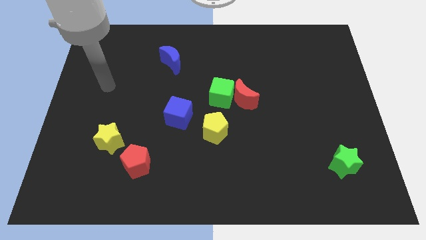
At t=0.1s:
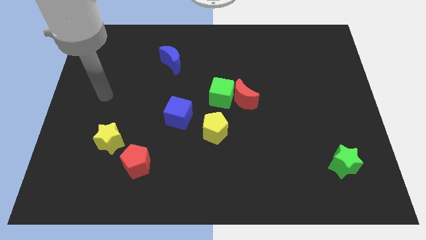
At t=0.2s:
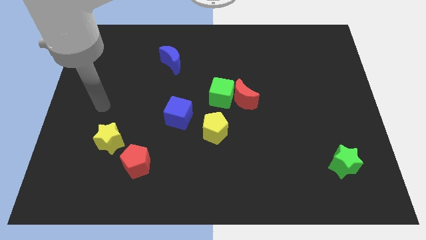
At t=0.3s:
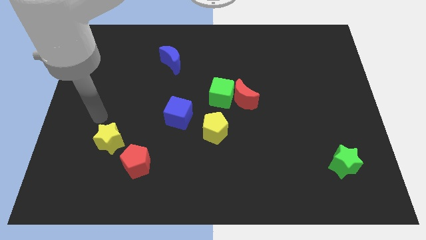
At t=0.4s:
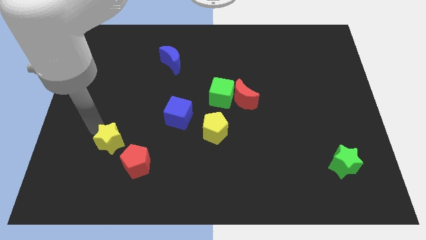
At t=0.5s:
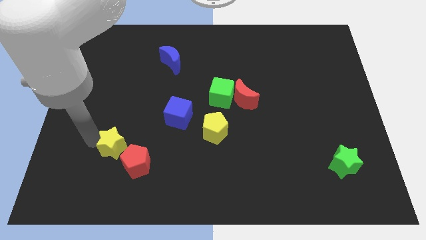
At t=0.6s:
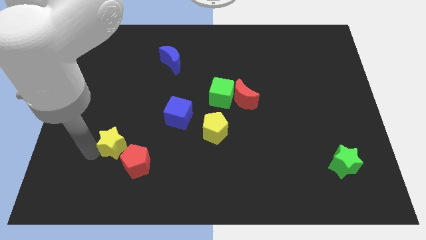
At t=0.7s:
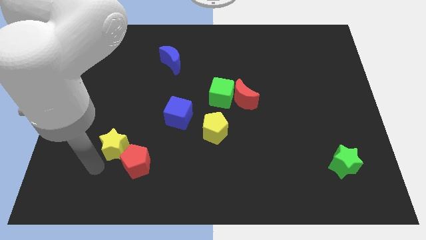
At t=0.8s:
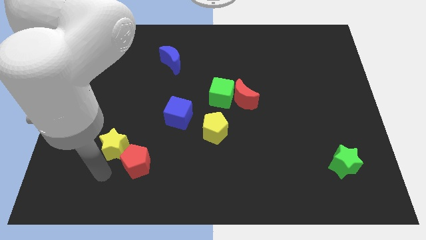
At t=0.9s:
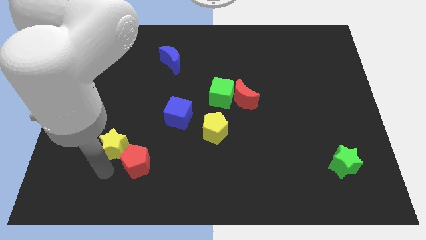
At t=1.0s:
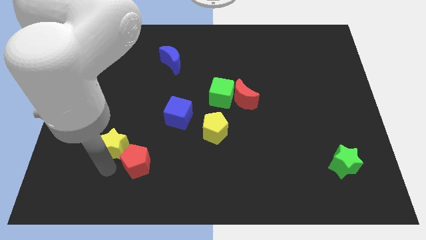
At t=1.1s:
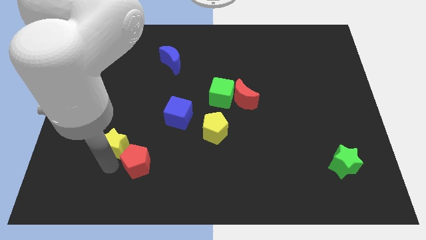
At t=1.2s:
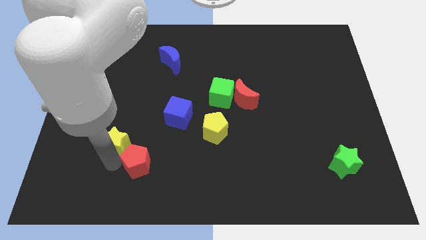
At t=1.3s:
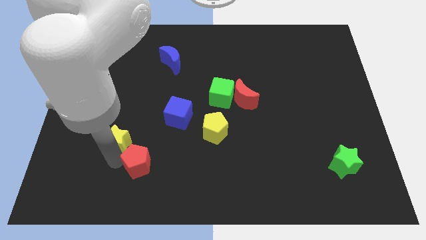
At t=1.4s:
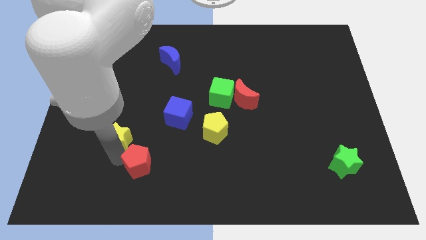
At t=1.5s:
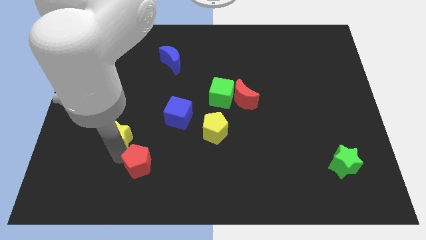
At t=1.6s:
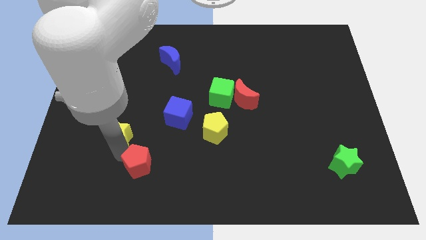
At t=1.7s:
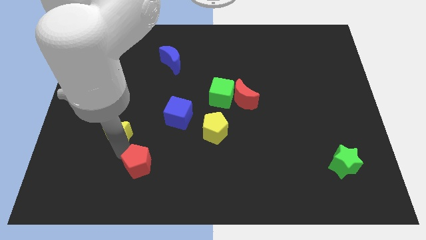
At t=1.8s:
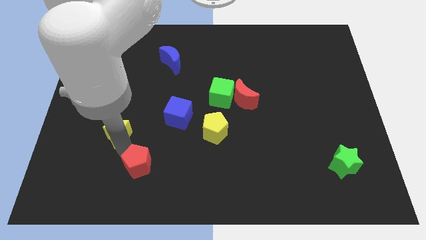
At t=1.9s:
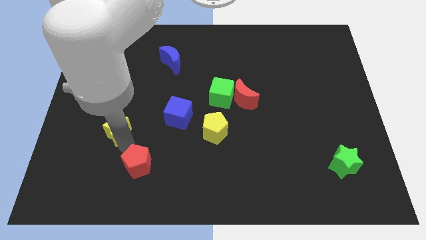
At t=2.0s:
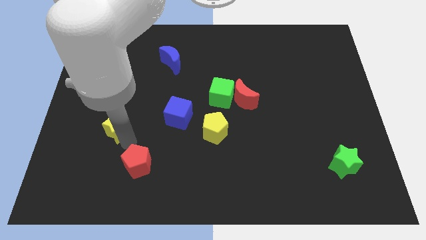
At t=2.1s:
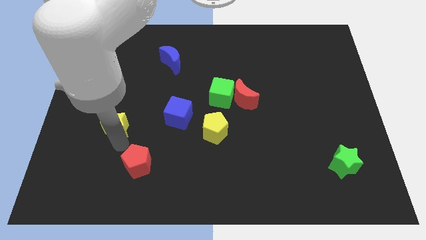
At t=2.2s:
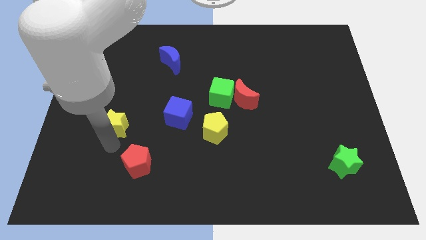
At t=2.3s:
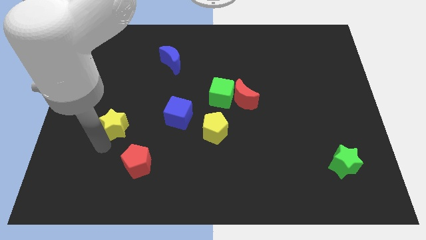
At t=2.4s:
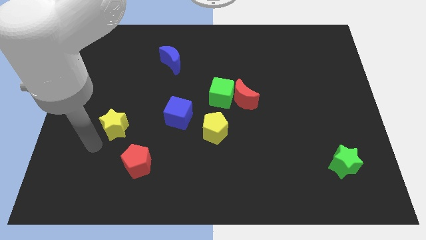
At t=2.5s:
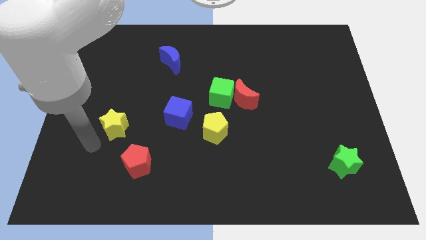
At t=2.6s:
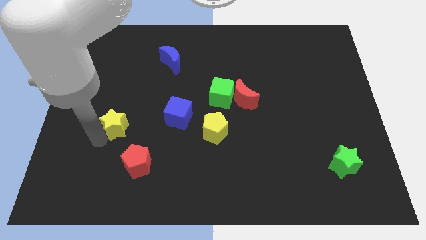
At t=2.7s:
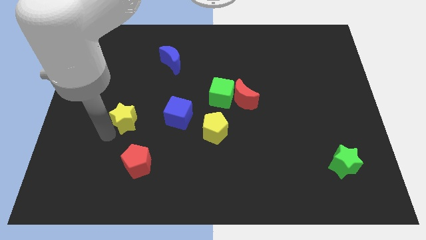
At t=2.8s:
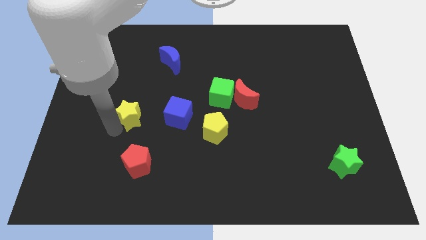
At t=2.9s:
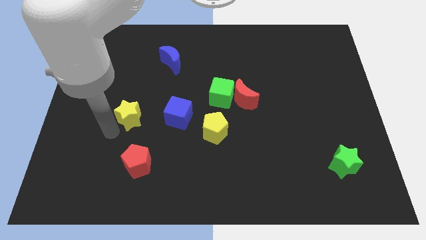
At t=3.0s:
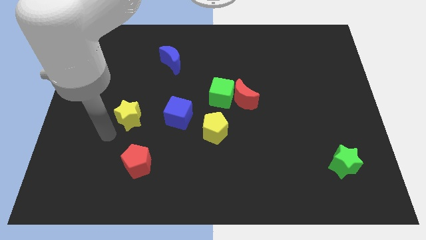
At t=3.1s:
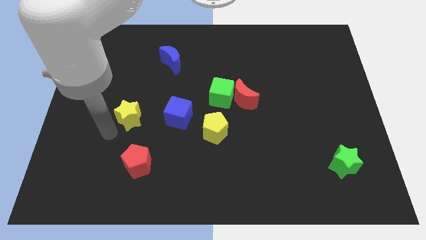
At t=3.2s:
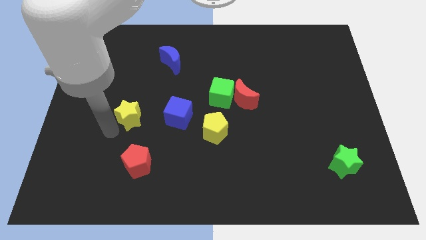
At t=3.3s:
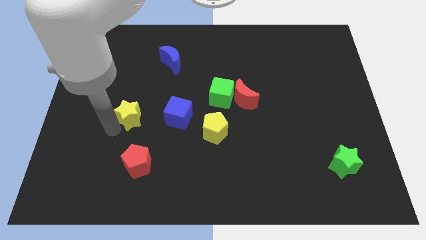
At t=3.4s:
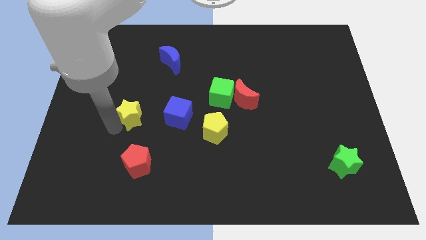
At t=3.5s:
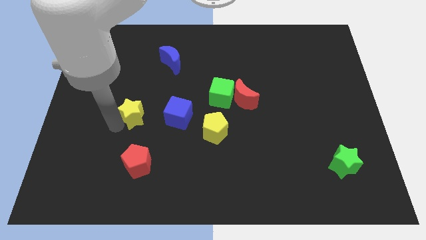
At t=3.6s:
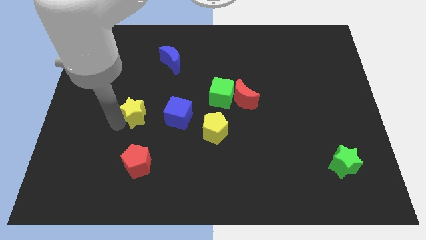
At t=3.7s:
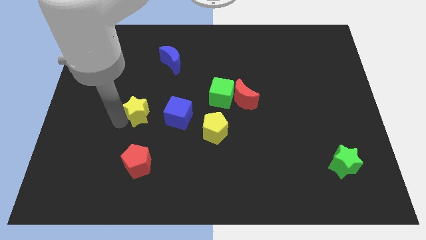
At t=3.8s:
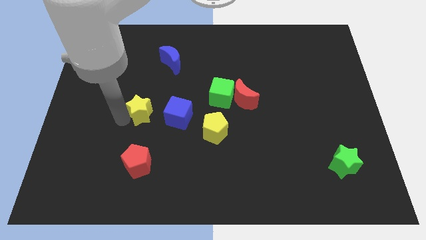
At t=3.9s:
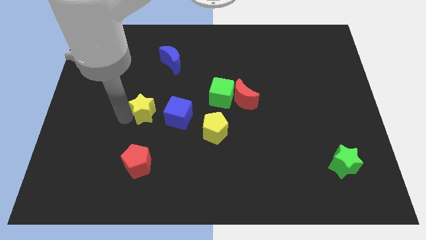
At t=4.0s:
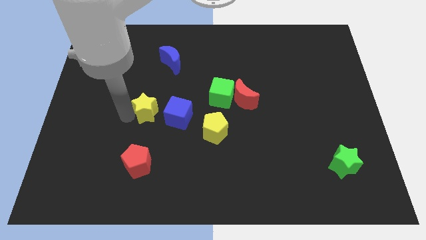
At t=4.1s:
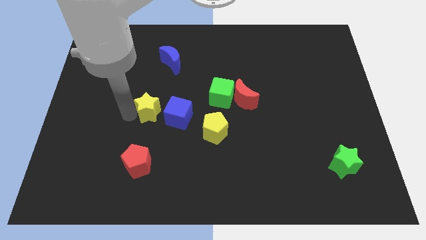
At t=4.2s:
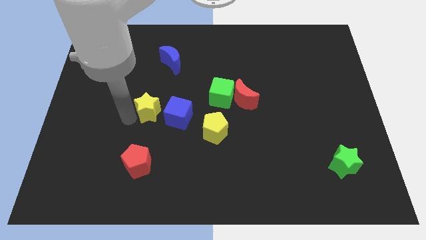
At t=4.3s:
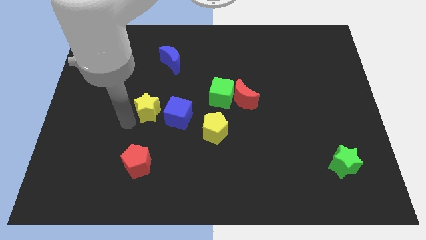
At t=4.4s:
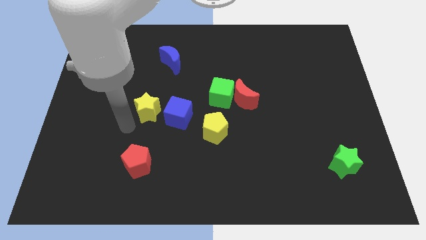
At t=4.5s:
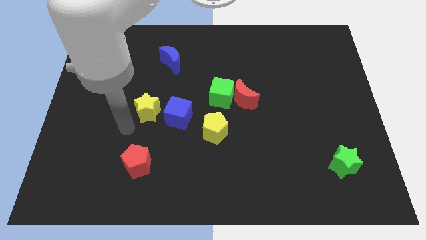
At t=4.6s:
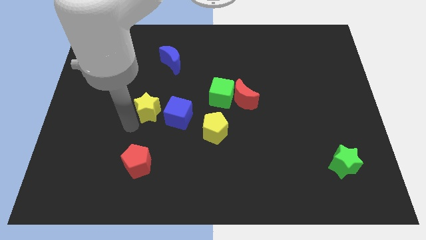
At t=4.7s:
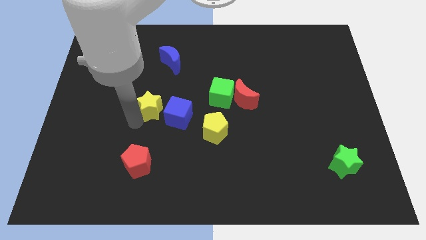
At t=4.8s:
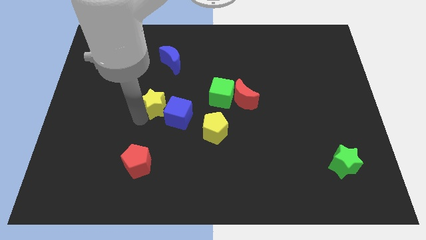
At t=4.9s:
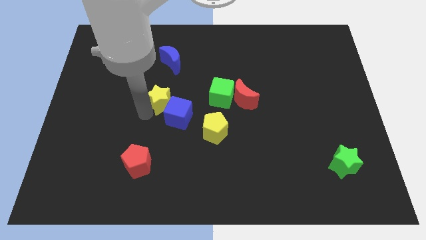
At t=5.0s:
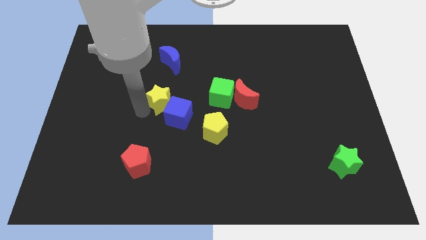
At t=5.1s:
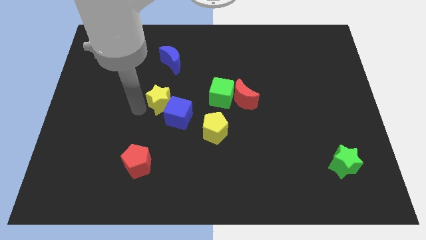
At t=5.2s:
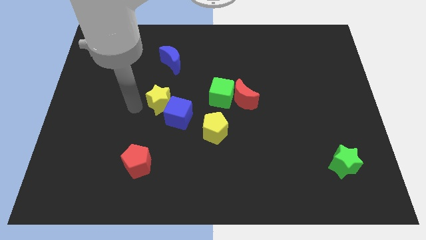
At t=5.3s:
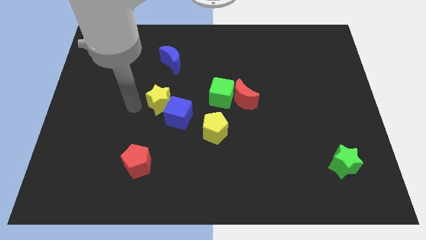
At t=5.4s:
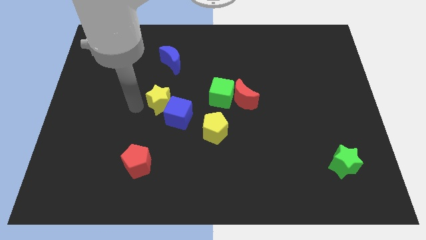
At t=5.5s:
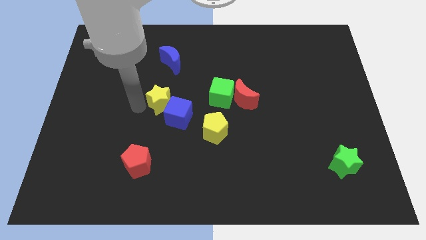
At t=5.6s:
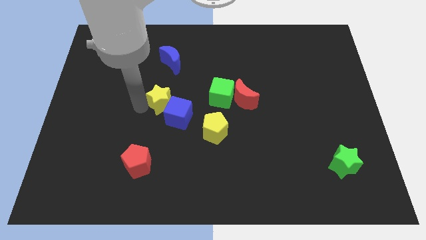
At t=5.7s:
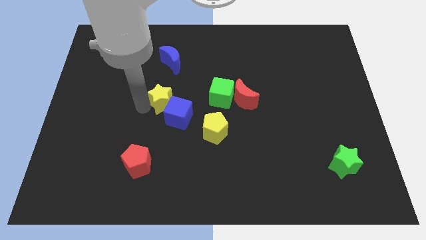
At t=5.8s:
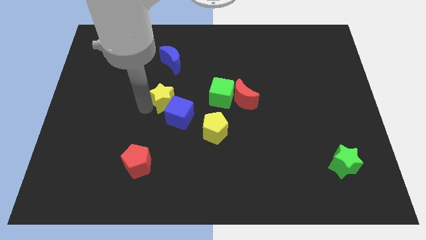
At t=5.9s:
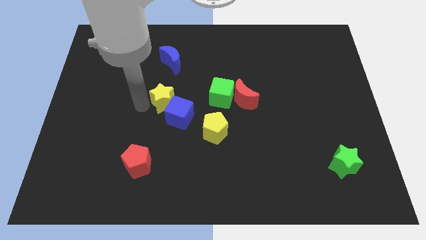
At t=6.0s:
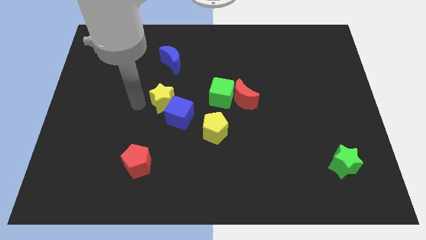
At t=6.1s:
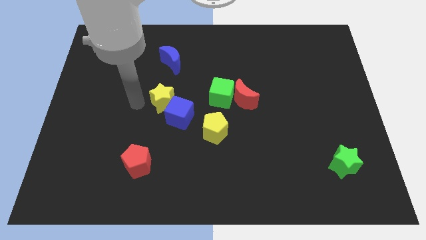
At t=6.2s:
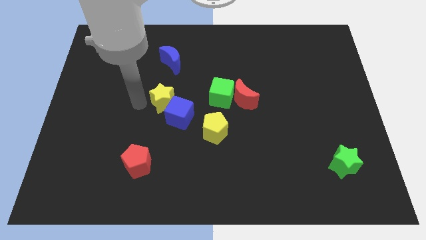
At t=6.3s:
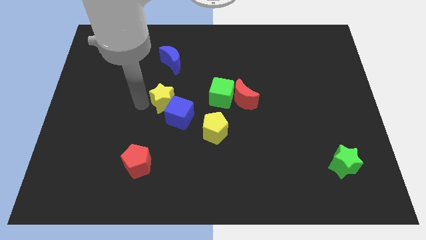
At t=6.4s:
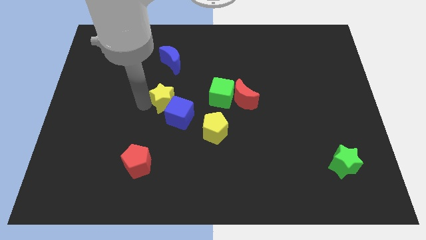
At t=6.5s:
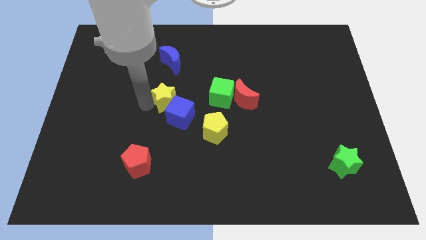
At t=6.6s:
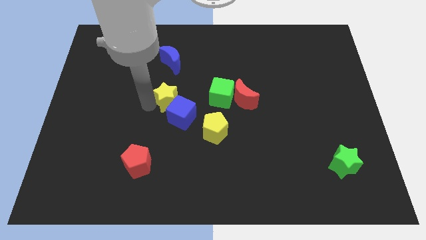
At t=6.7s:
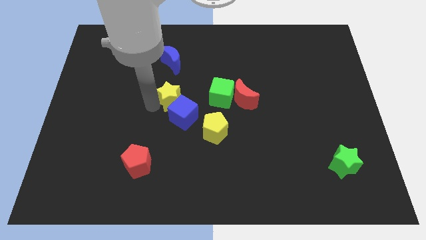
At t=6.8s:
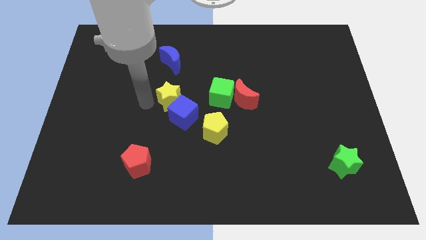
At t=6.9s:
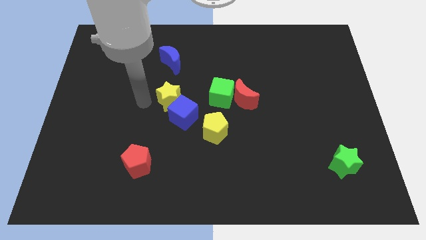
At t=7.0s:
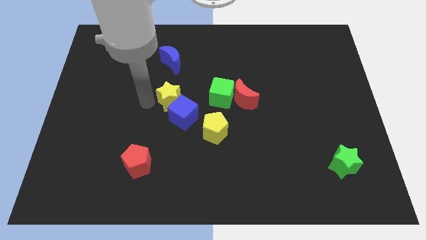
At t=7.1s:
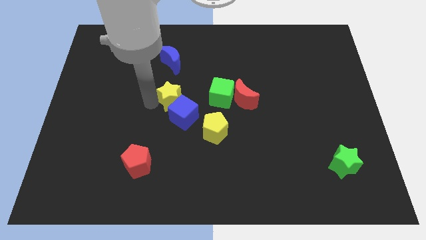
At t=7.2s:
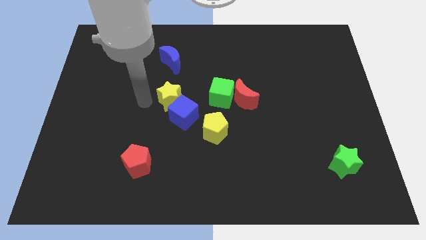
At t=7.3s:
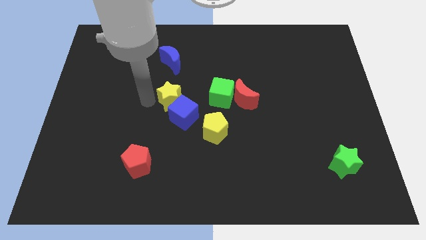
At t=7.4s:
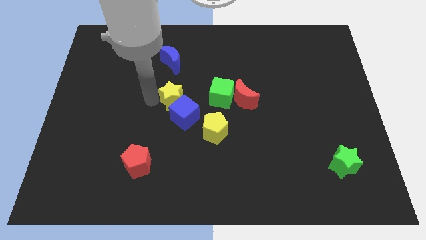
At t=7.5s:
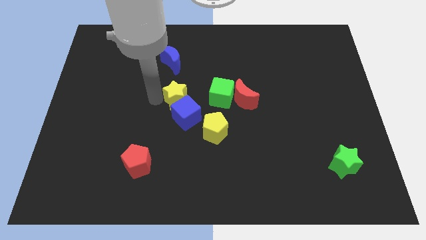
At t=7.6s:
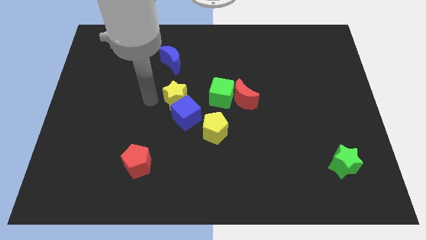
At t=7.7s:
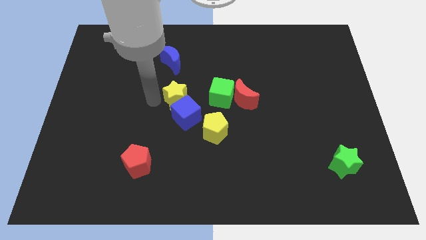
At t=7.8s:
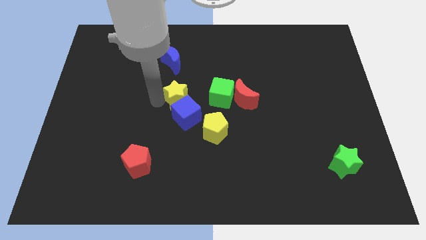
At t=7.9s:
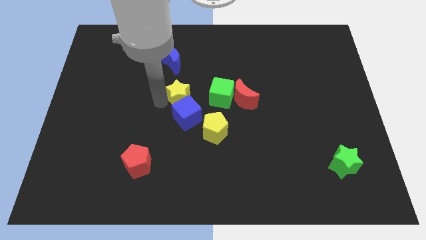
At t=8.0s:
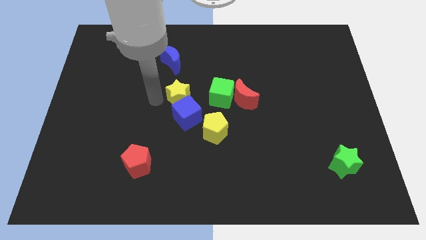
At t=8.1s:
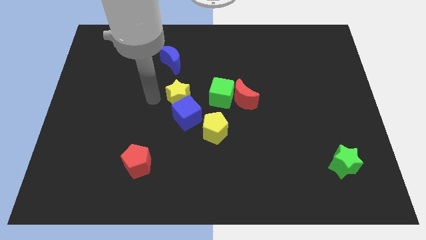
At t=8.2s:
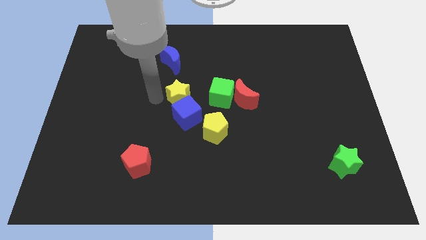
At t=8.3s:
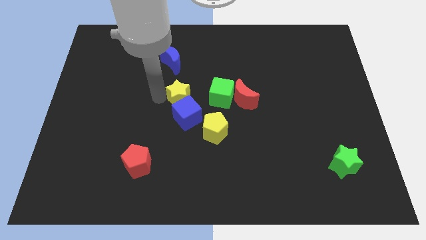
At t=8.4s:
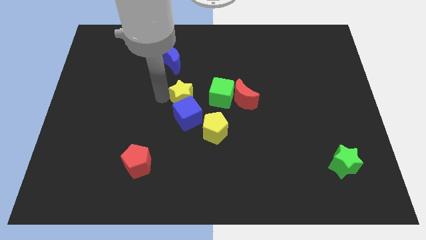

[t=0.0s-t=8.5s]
put the yellow star diagonally up and to the right of the blue cube
